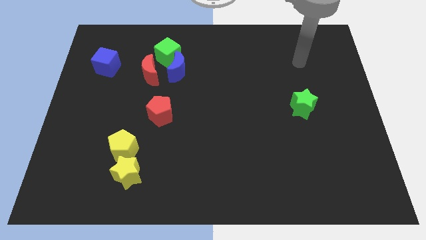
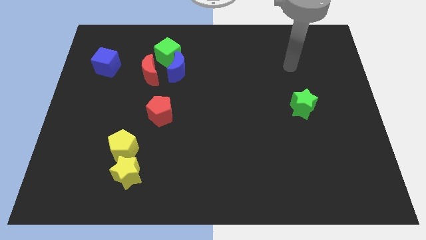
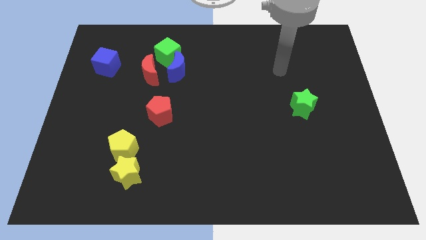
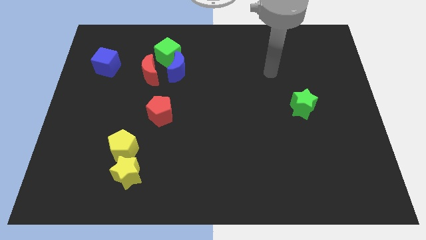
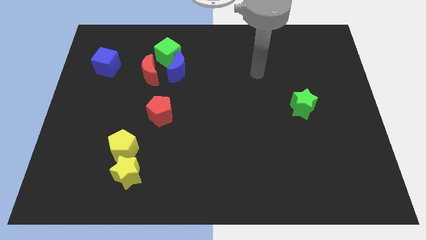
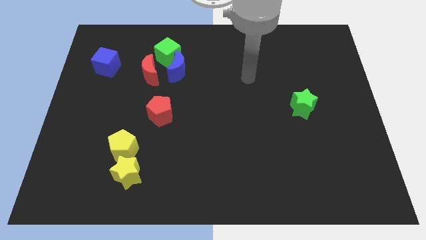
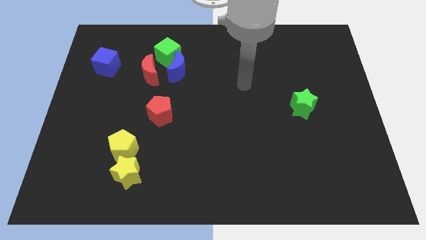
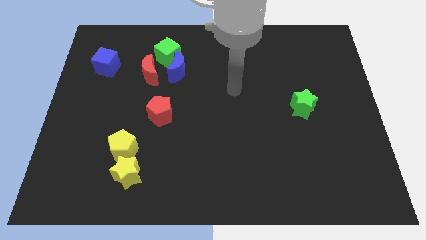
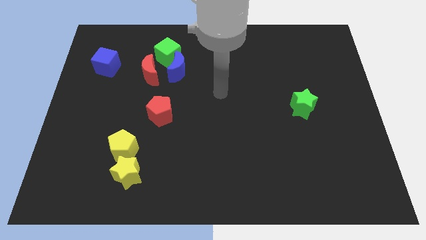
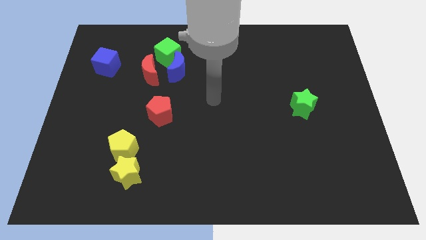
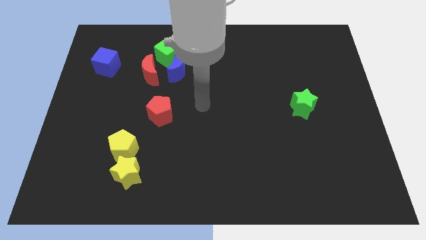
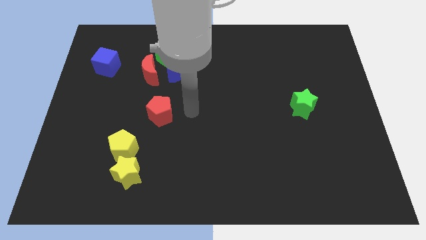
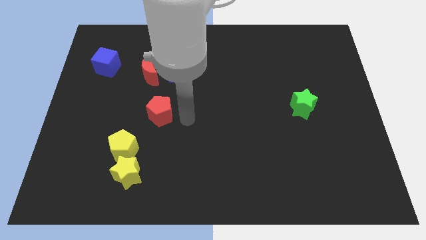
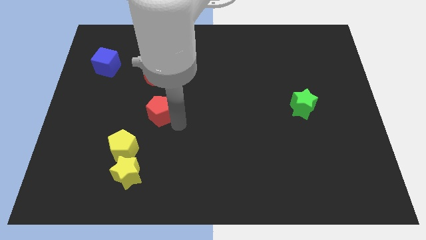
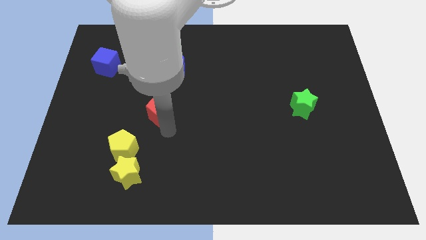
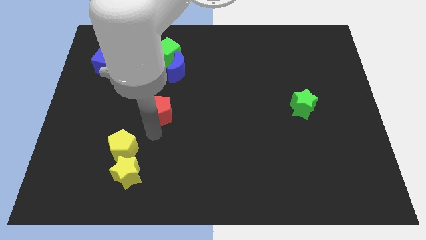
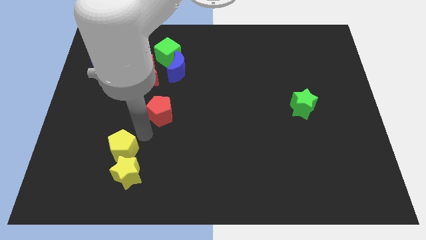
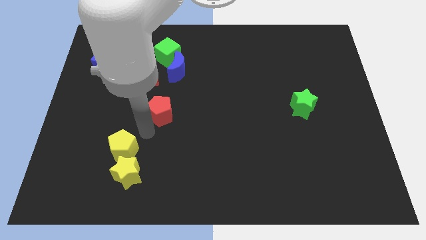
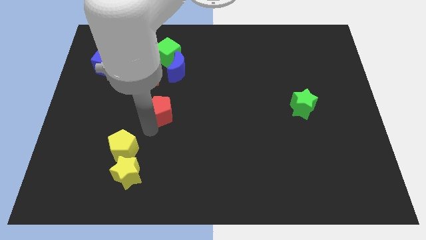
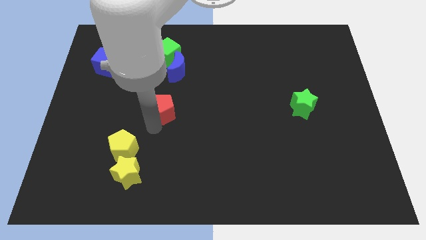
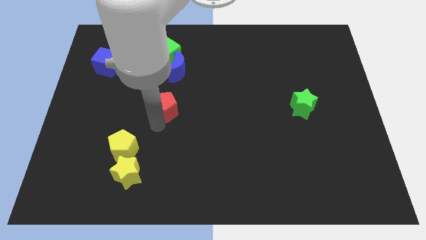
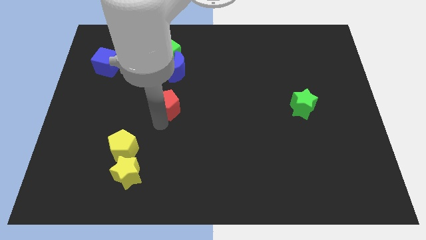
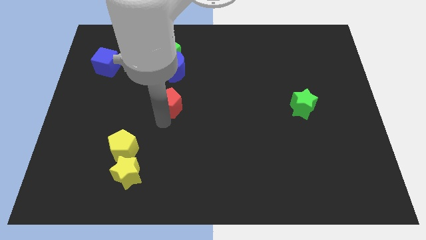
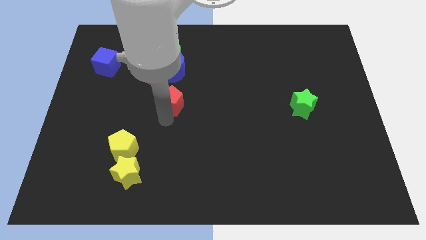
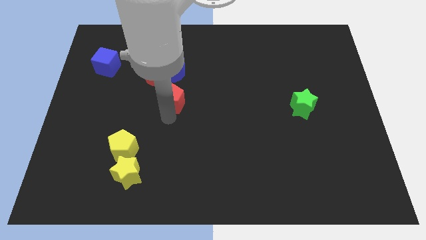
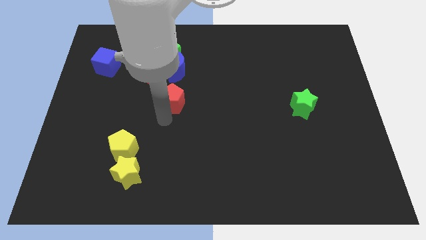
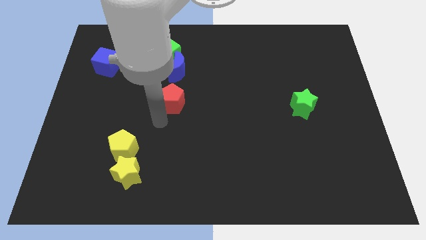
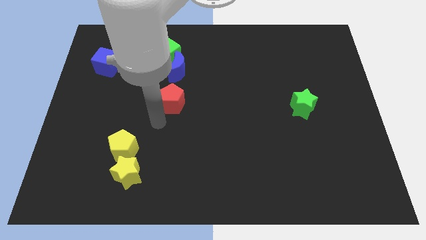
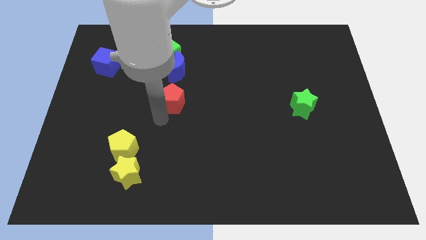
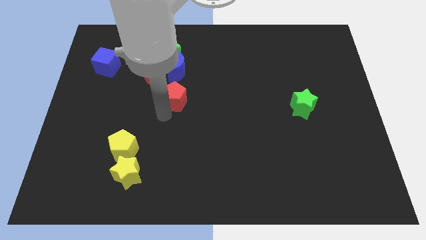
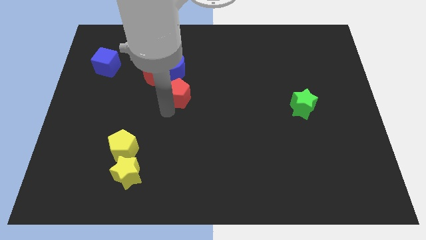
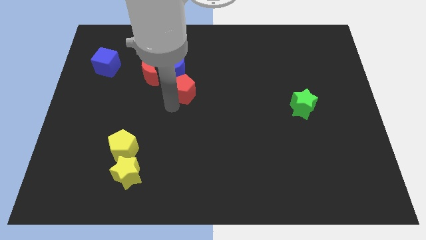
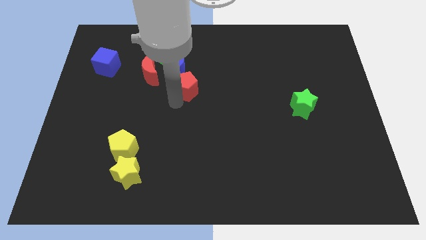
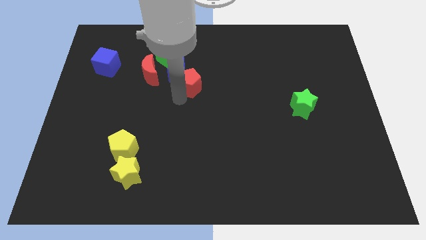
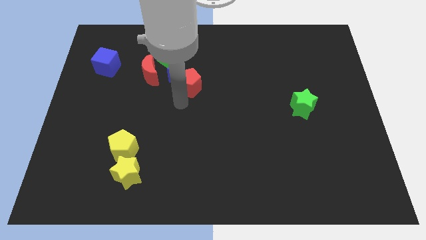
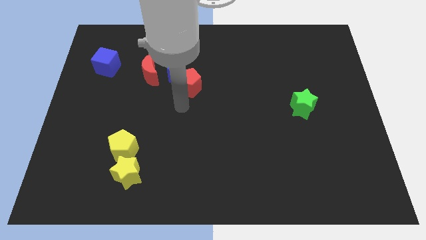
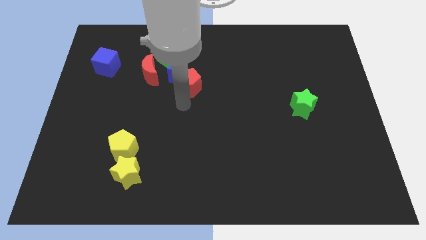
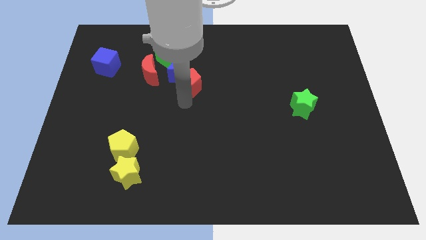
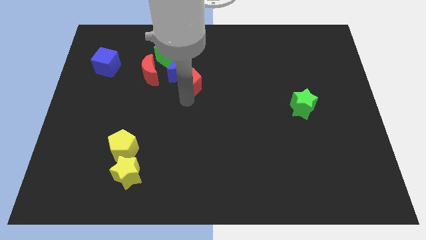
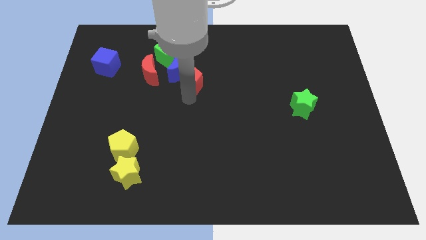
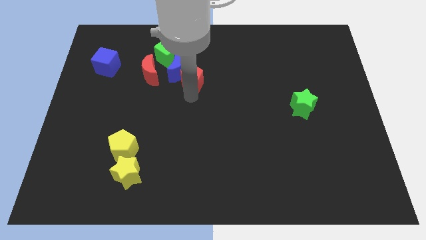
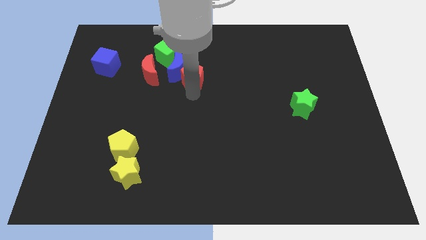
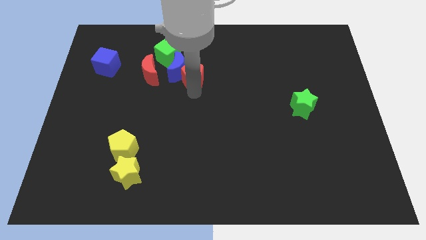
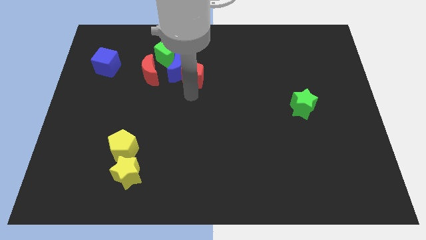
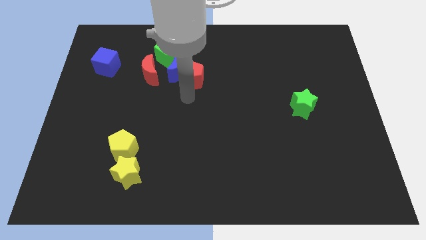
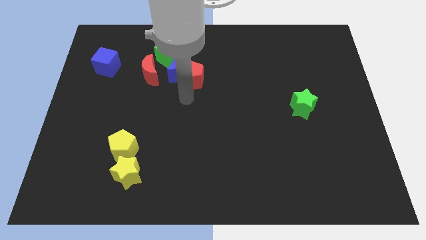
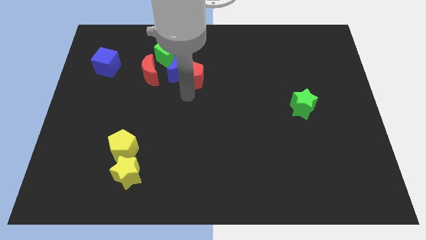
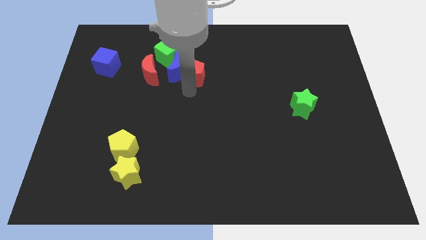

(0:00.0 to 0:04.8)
move the red pentagon to the top right of the blue moon

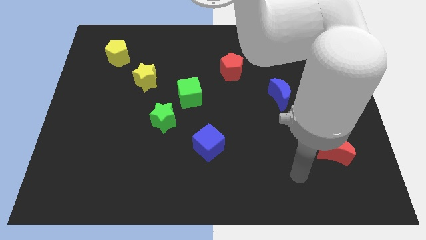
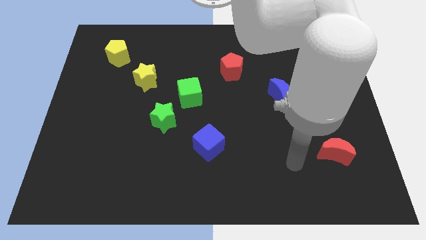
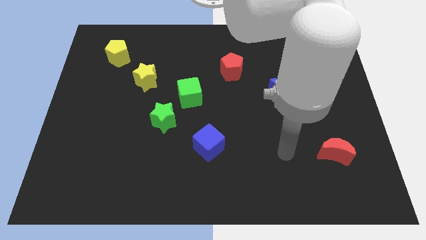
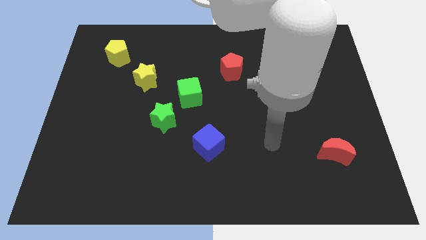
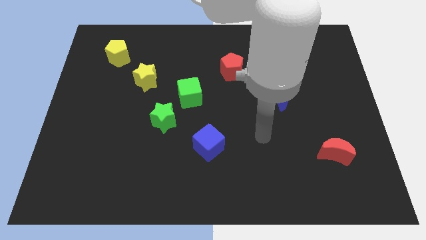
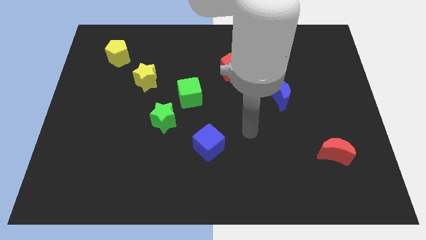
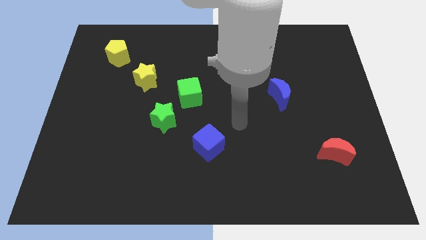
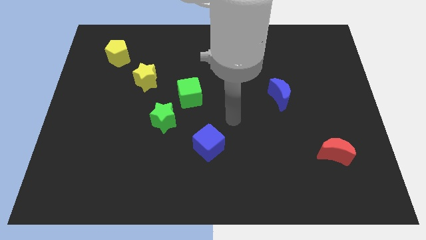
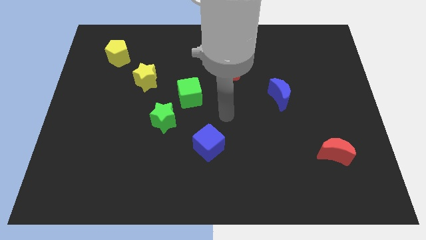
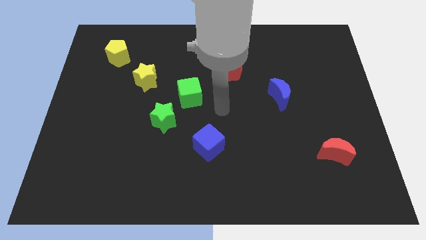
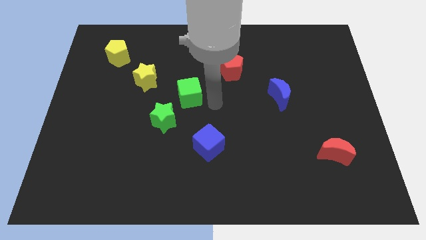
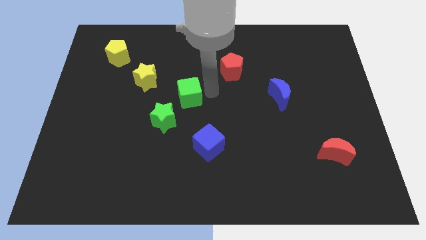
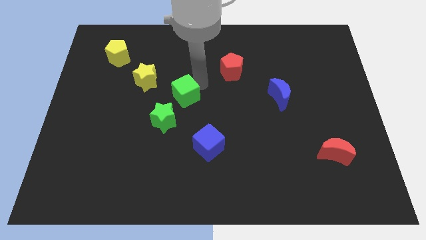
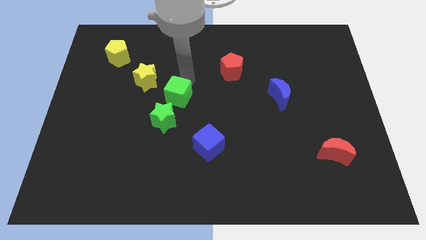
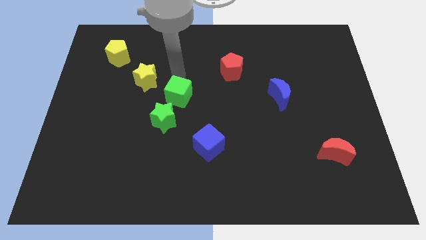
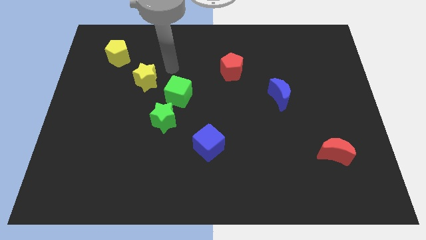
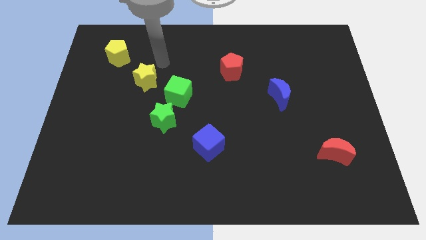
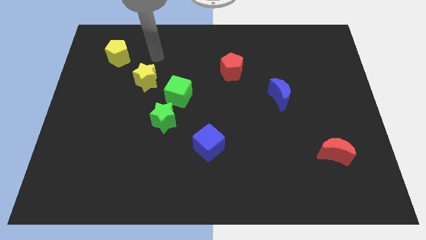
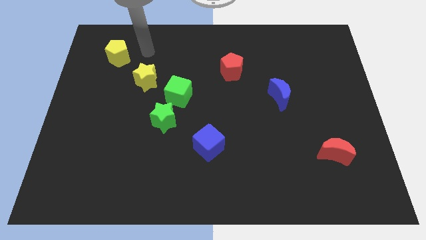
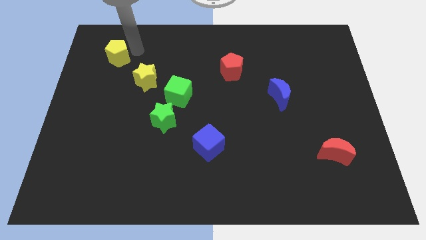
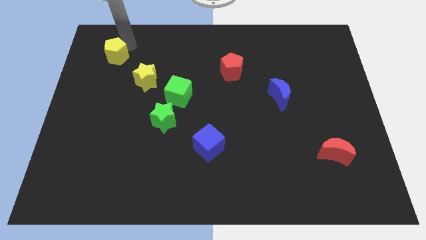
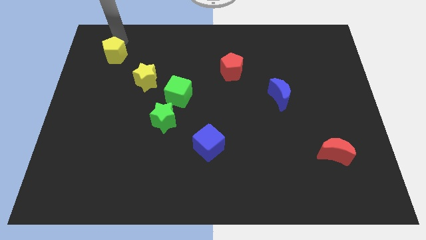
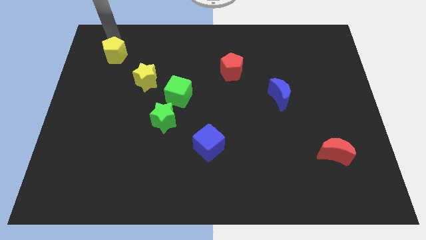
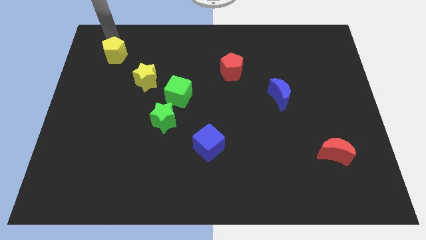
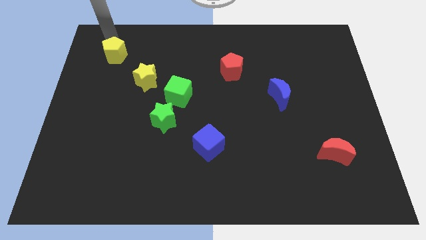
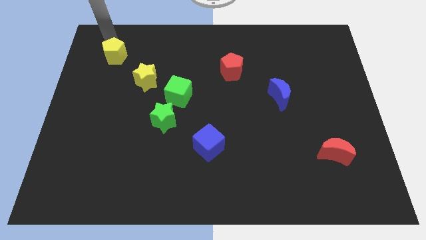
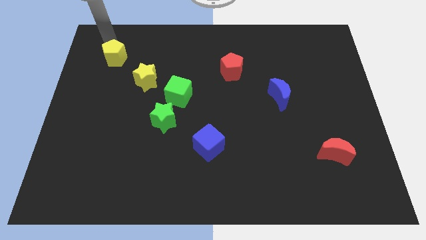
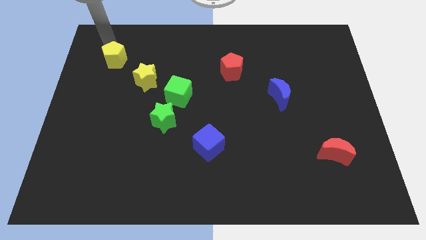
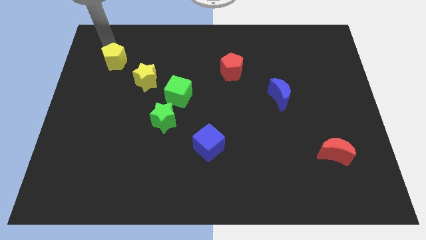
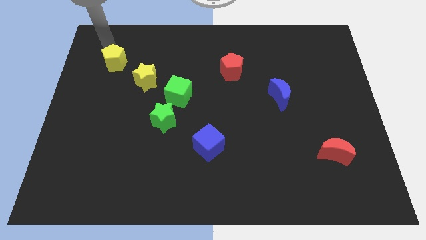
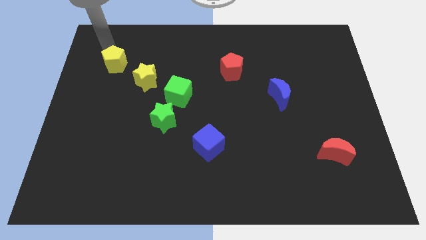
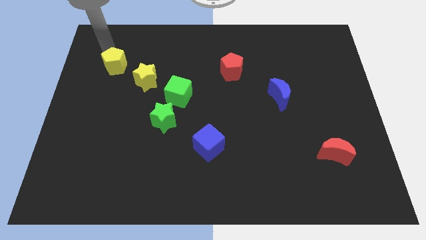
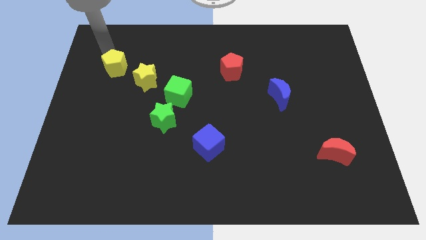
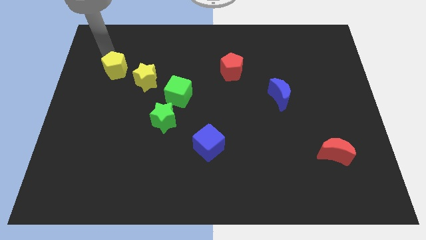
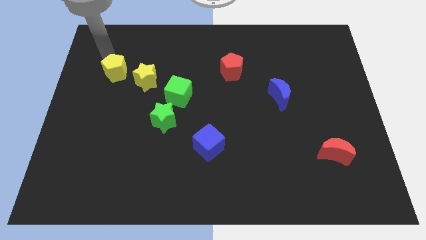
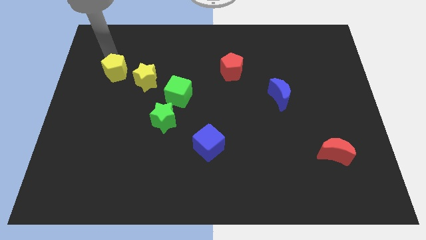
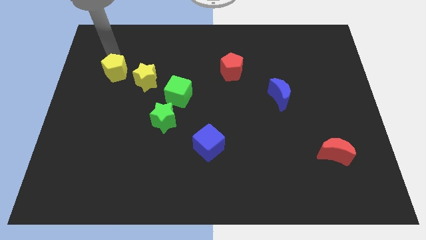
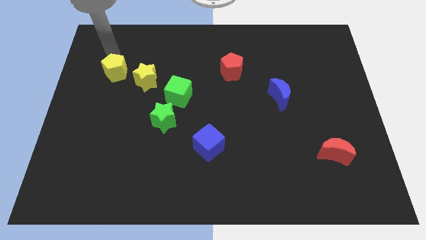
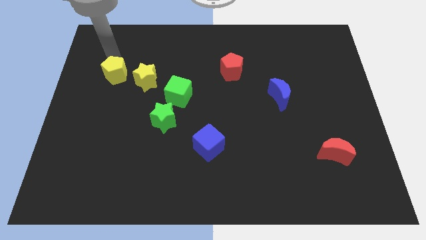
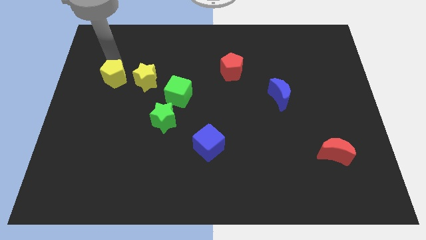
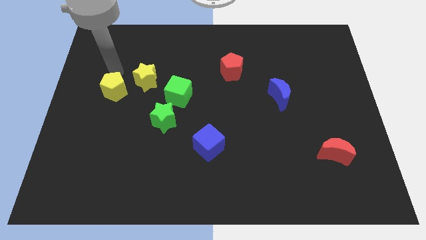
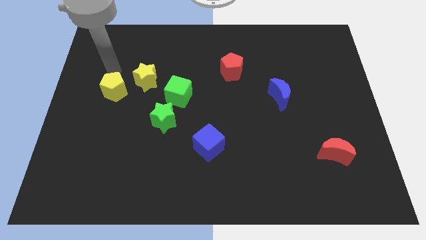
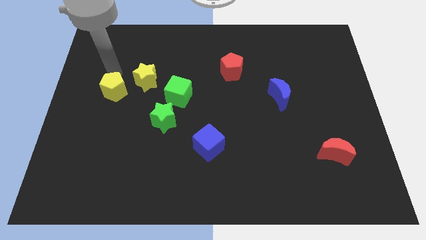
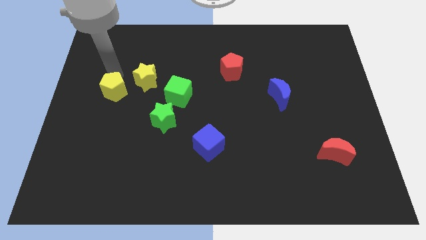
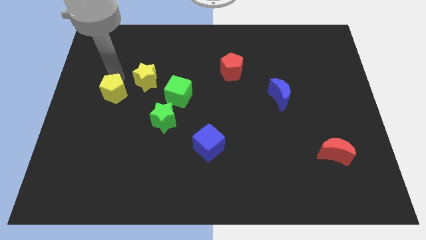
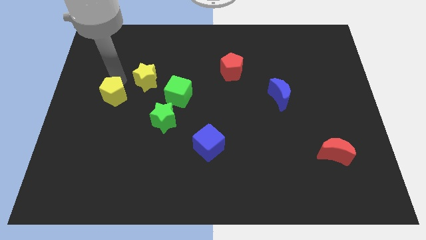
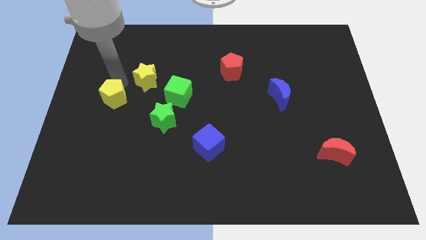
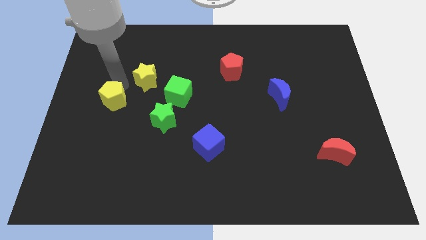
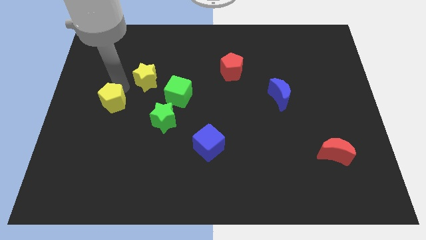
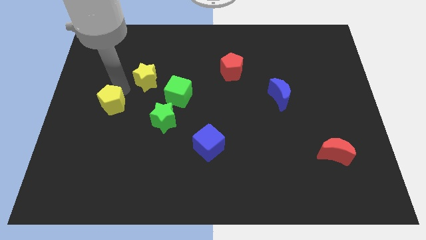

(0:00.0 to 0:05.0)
push the yellow pentagon to the left of the green star
